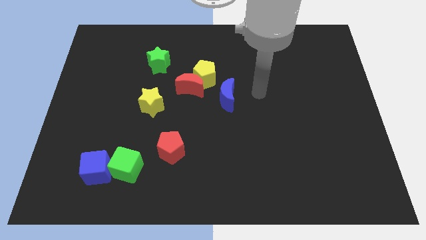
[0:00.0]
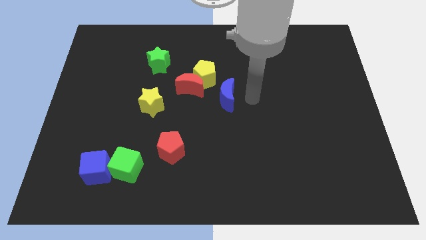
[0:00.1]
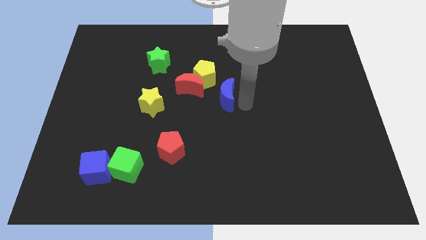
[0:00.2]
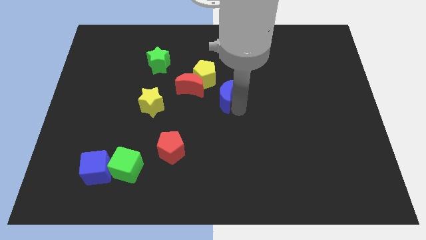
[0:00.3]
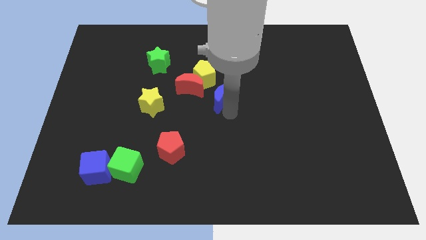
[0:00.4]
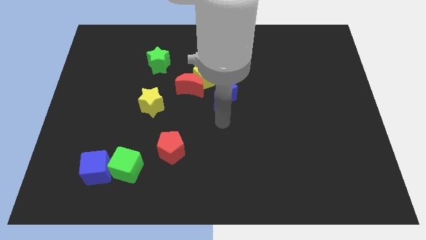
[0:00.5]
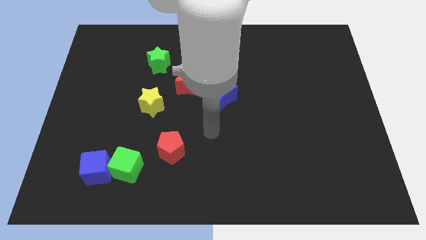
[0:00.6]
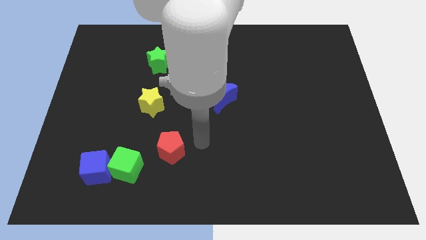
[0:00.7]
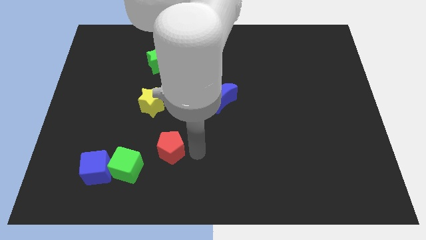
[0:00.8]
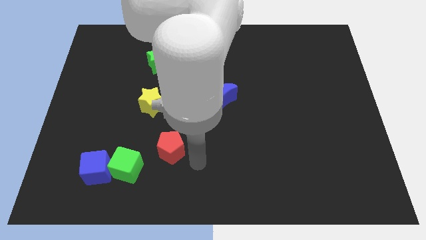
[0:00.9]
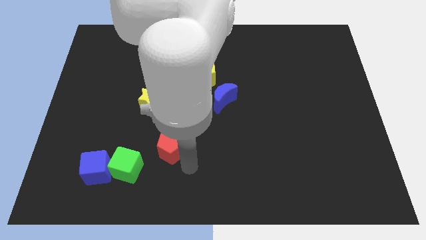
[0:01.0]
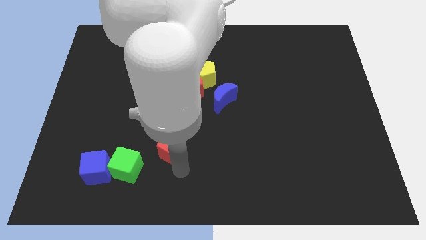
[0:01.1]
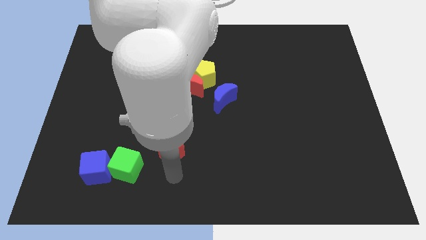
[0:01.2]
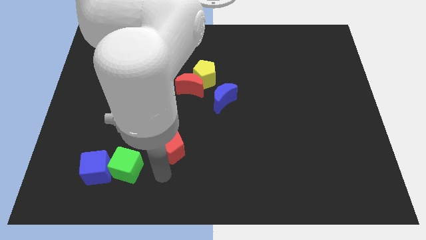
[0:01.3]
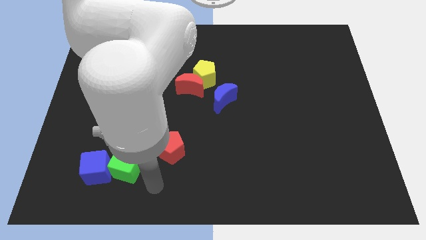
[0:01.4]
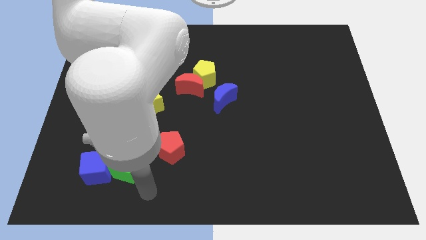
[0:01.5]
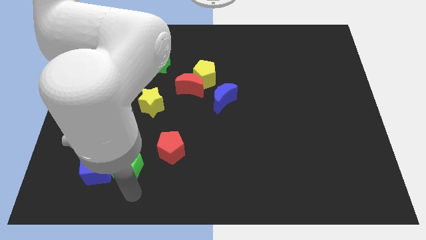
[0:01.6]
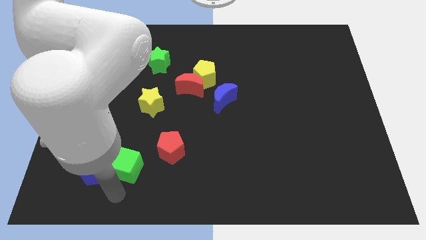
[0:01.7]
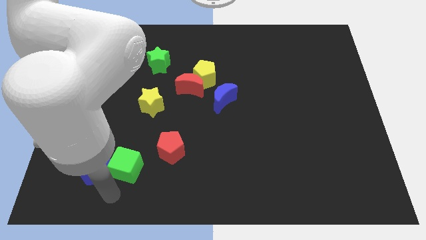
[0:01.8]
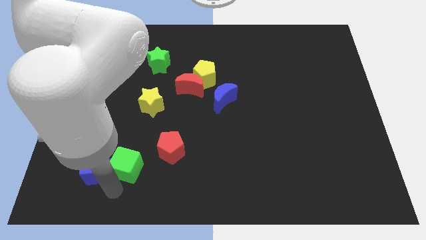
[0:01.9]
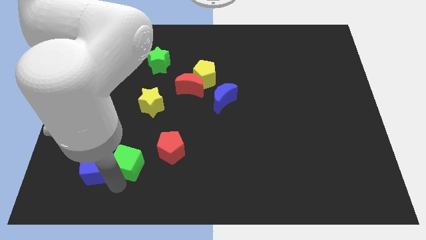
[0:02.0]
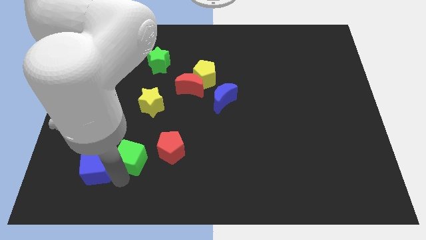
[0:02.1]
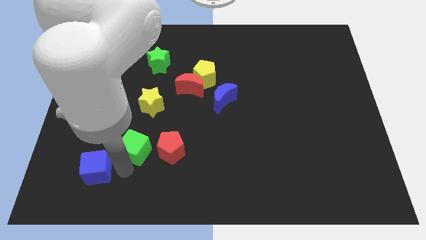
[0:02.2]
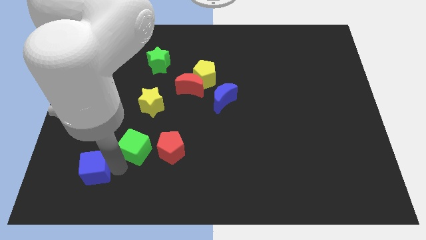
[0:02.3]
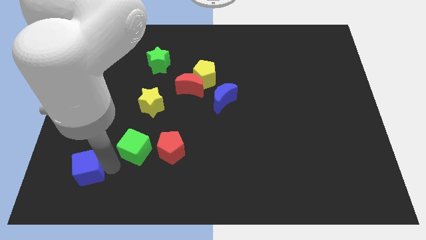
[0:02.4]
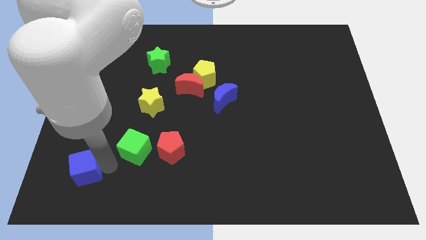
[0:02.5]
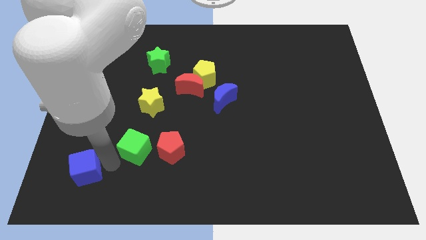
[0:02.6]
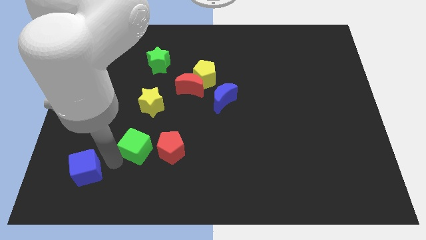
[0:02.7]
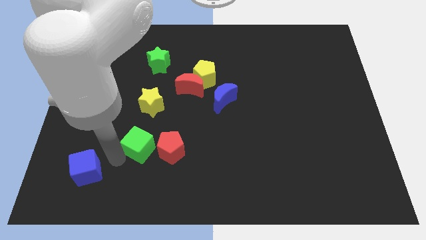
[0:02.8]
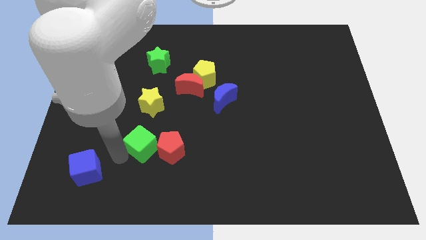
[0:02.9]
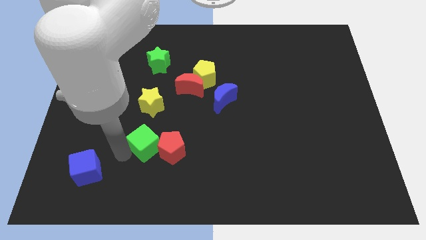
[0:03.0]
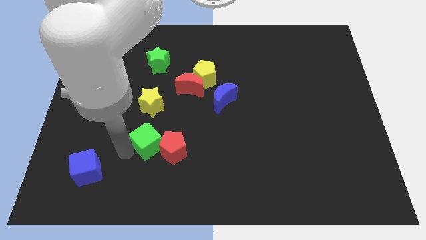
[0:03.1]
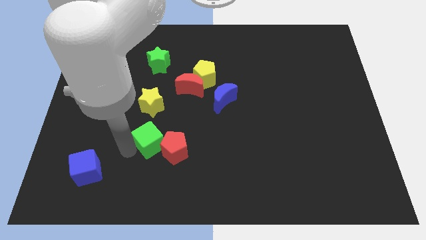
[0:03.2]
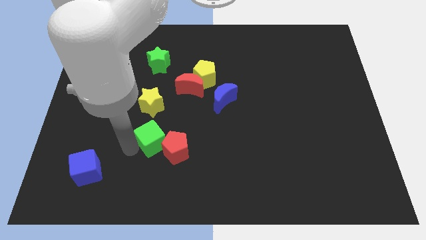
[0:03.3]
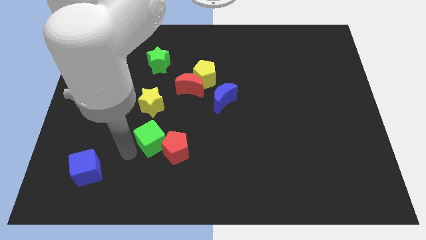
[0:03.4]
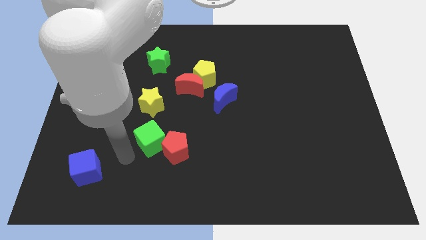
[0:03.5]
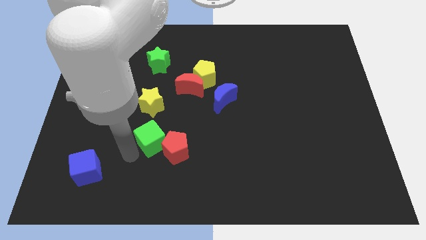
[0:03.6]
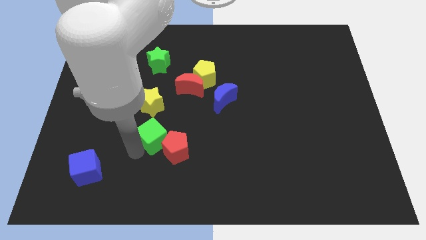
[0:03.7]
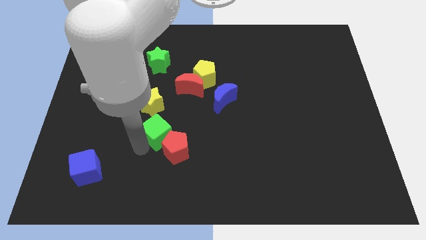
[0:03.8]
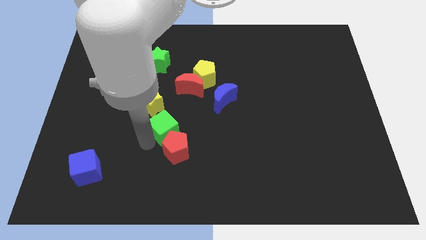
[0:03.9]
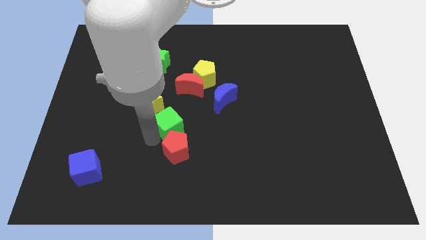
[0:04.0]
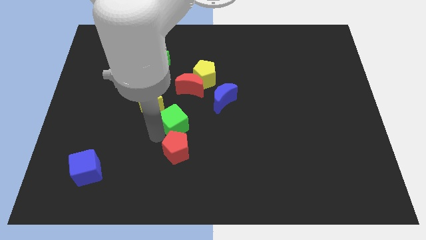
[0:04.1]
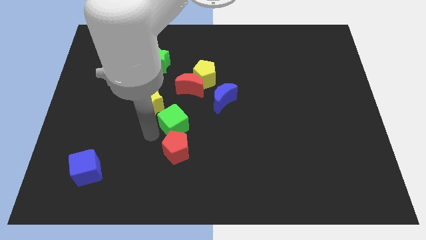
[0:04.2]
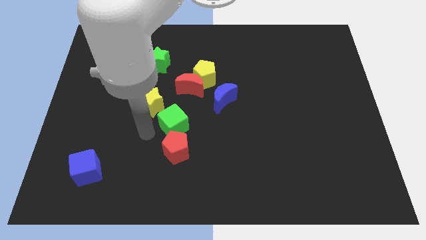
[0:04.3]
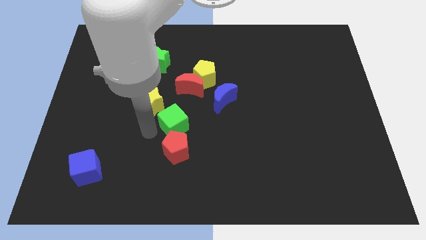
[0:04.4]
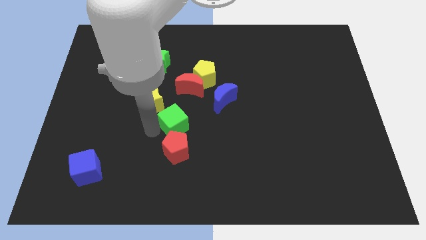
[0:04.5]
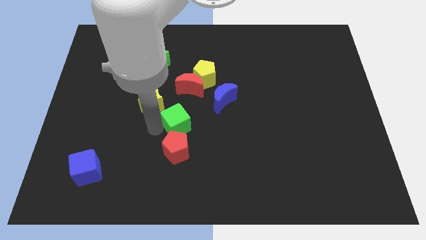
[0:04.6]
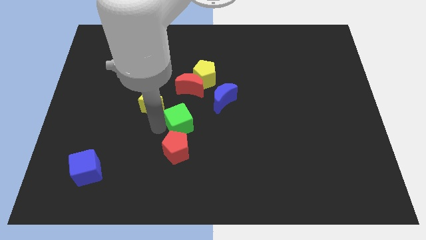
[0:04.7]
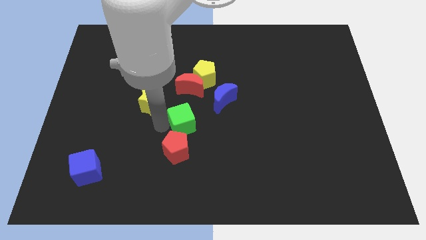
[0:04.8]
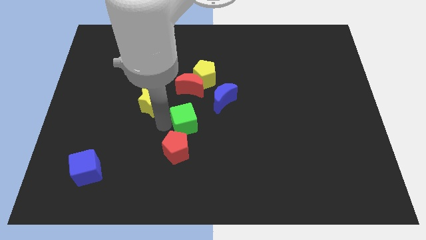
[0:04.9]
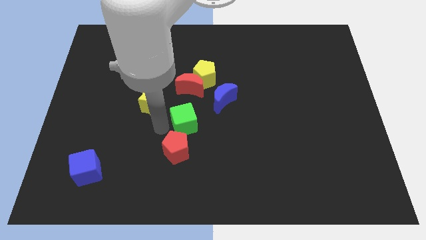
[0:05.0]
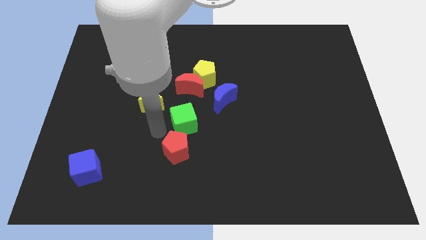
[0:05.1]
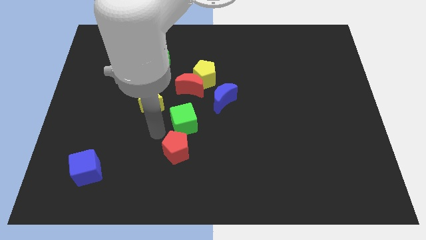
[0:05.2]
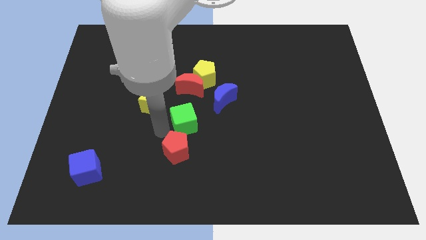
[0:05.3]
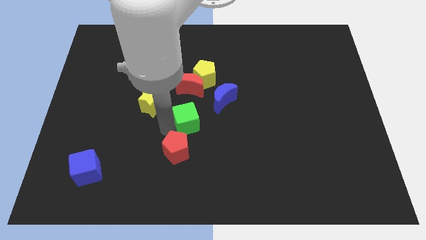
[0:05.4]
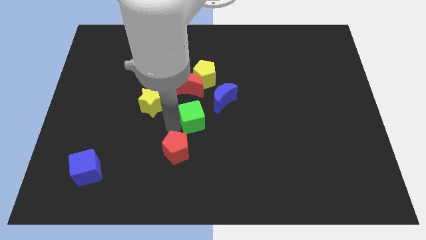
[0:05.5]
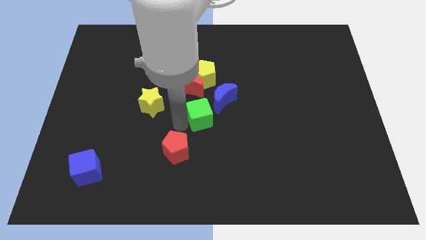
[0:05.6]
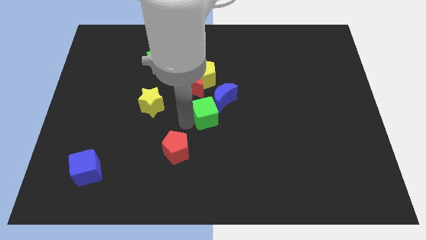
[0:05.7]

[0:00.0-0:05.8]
slide the green cube to the blue moon

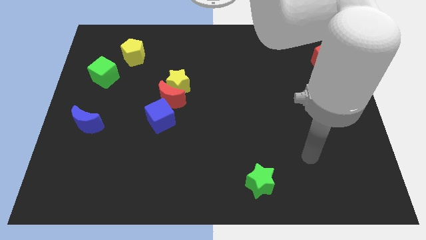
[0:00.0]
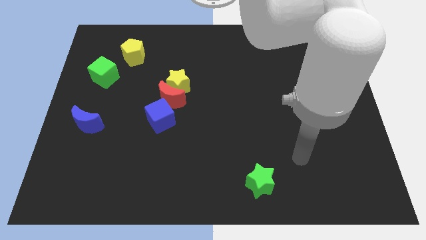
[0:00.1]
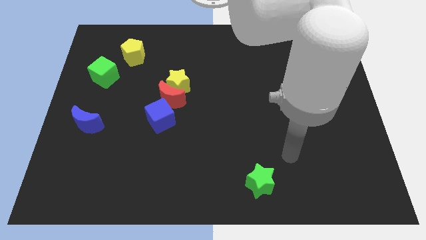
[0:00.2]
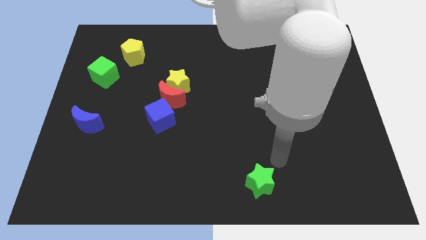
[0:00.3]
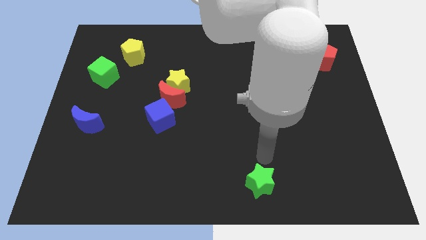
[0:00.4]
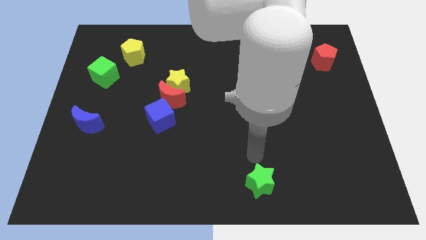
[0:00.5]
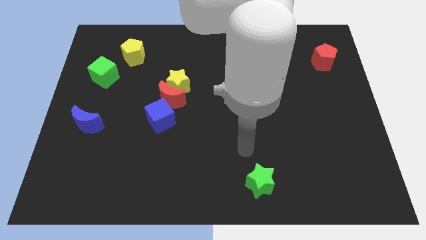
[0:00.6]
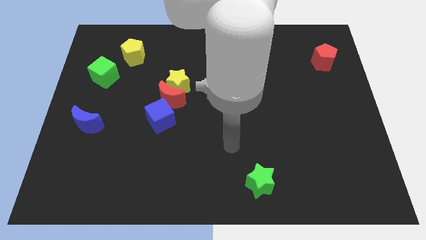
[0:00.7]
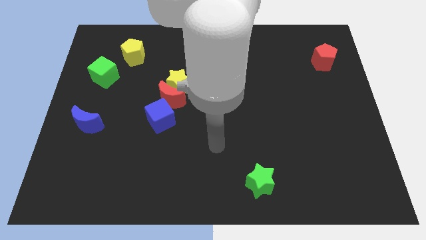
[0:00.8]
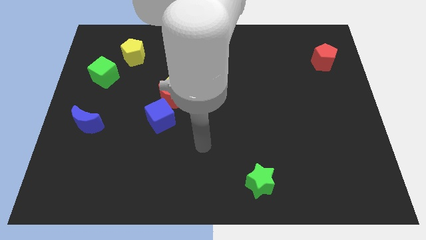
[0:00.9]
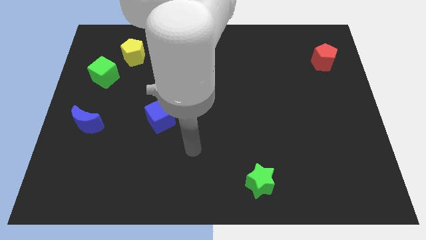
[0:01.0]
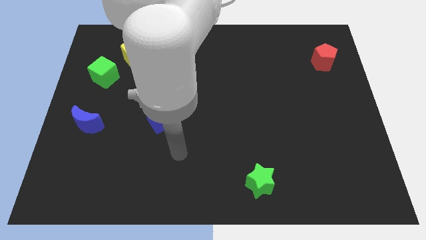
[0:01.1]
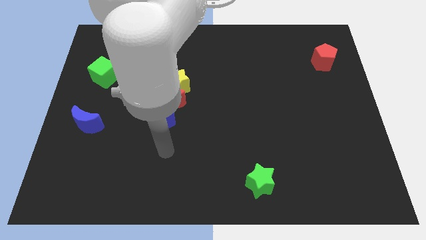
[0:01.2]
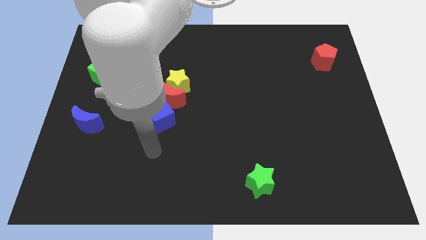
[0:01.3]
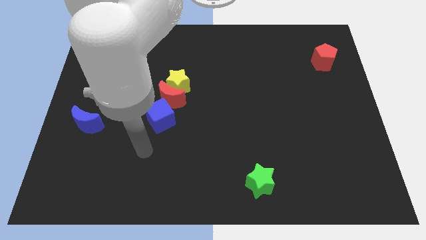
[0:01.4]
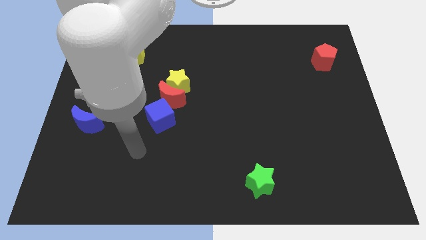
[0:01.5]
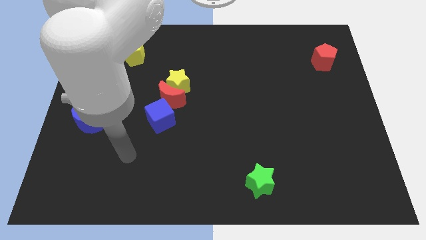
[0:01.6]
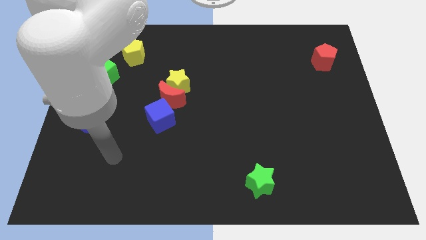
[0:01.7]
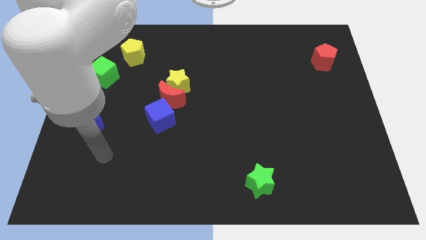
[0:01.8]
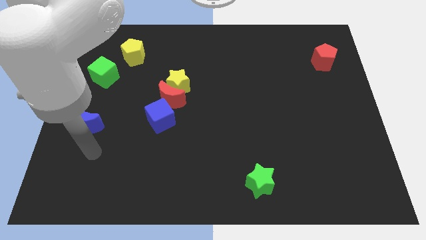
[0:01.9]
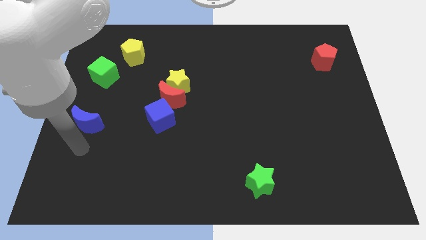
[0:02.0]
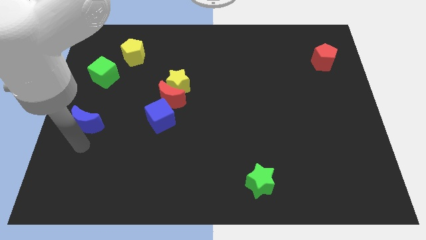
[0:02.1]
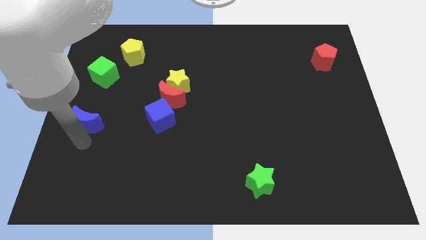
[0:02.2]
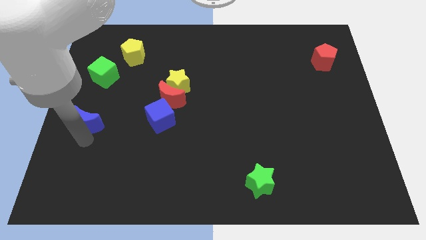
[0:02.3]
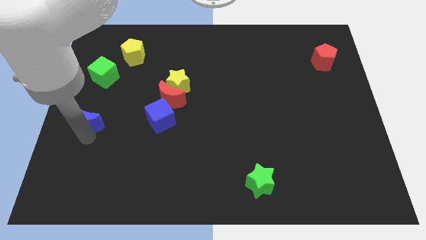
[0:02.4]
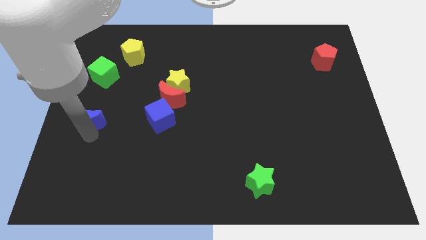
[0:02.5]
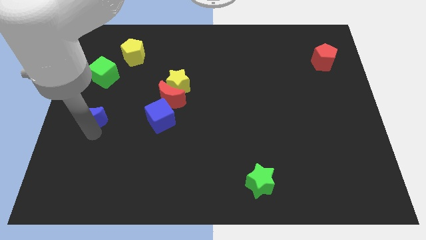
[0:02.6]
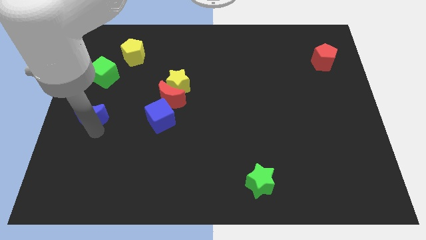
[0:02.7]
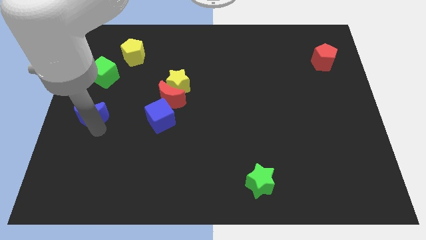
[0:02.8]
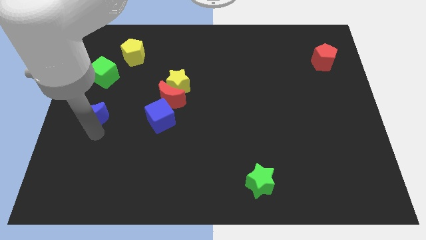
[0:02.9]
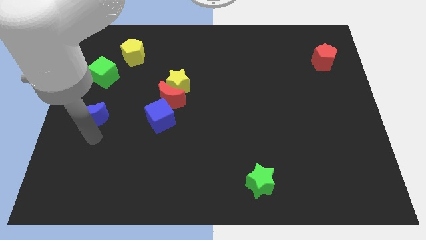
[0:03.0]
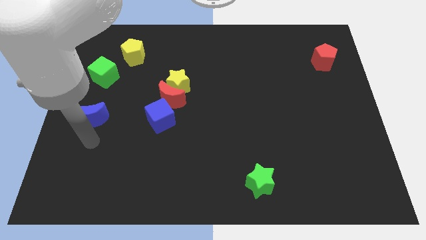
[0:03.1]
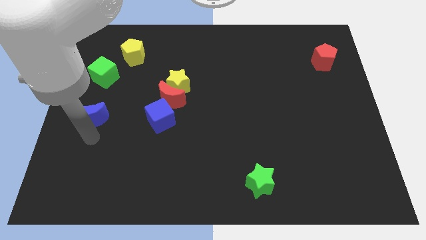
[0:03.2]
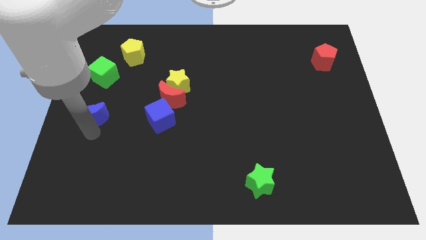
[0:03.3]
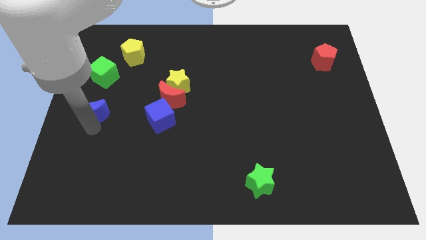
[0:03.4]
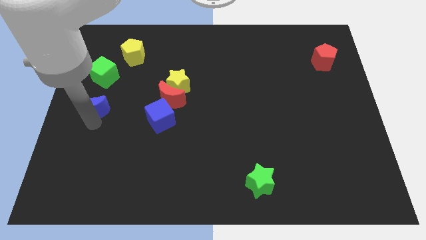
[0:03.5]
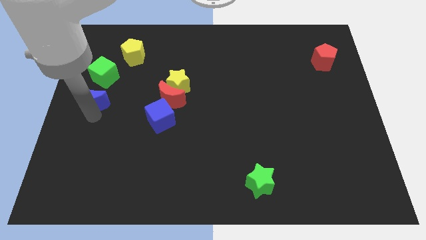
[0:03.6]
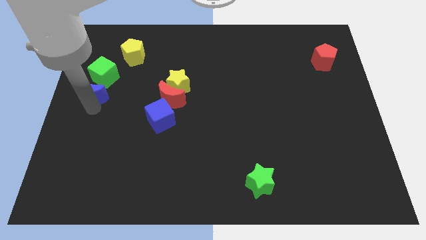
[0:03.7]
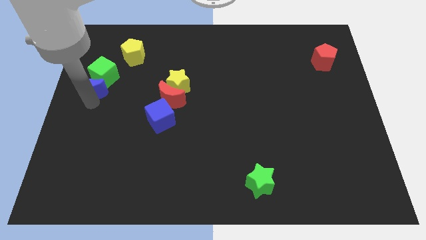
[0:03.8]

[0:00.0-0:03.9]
push the blue moon close to the green cube
